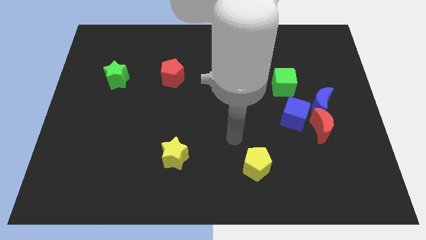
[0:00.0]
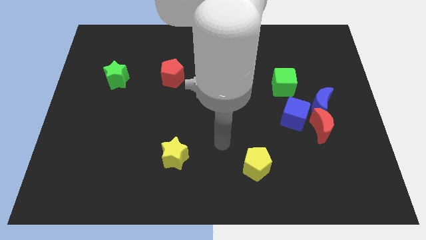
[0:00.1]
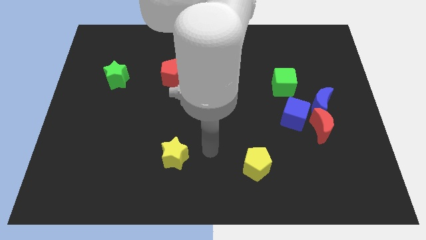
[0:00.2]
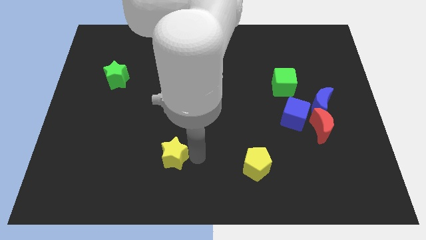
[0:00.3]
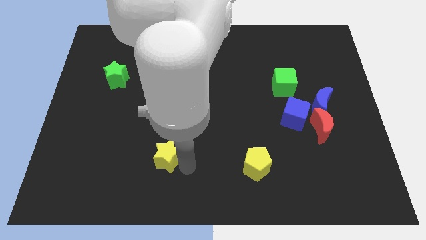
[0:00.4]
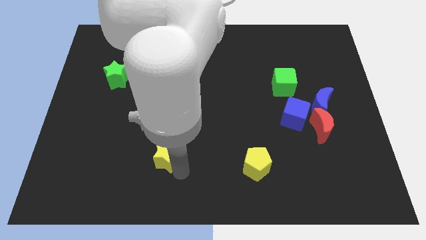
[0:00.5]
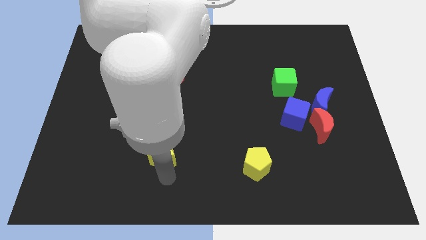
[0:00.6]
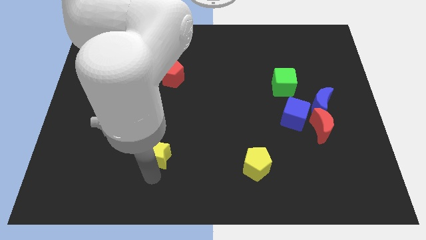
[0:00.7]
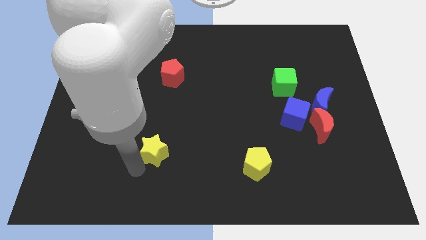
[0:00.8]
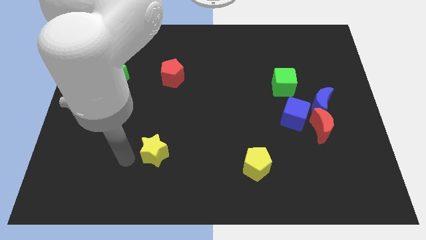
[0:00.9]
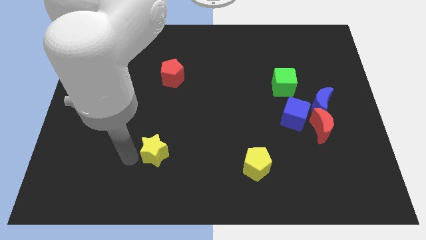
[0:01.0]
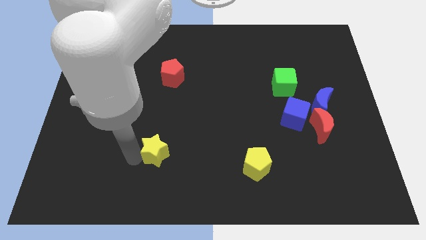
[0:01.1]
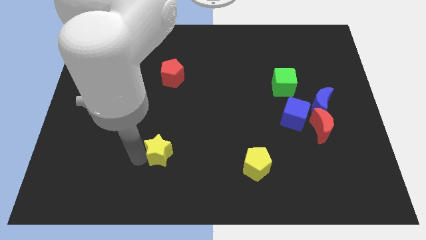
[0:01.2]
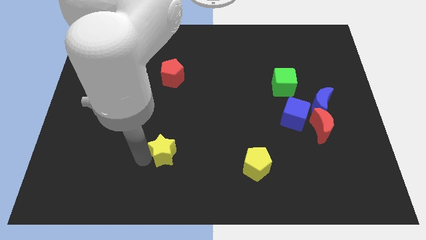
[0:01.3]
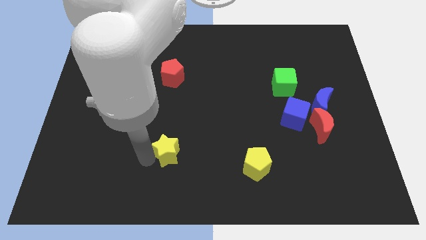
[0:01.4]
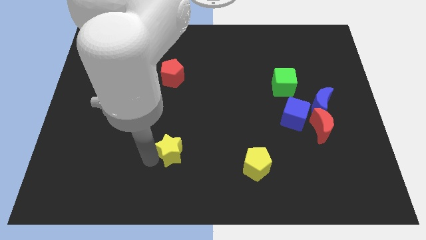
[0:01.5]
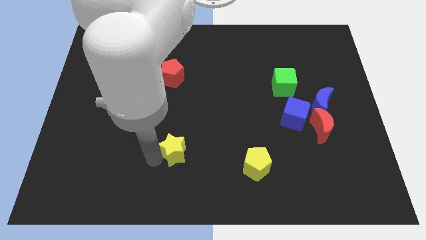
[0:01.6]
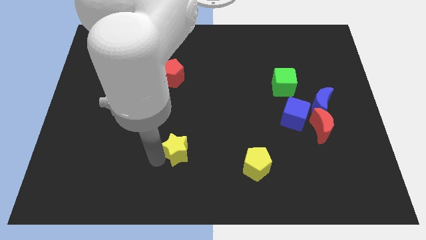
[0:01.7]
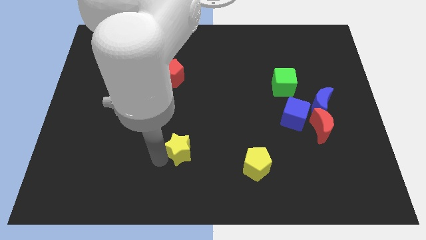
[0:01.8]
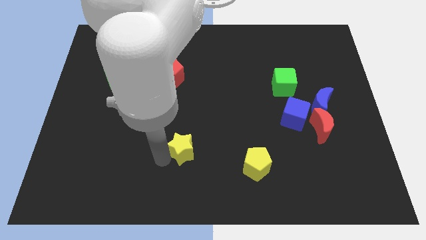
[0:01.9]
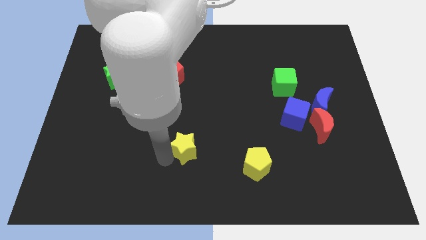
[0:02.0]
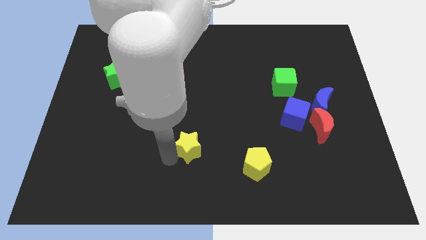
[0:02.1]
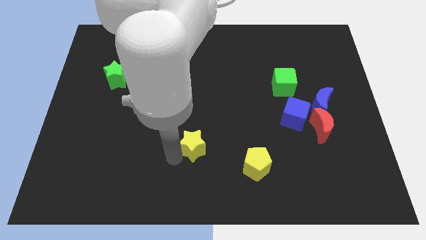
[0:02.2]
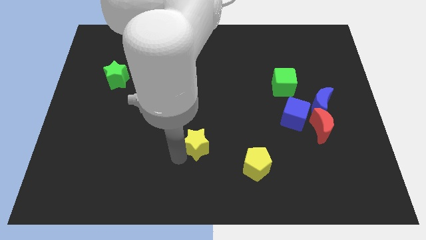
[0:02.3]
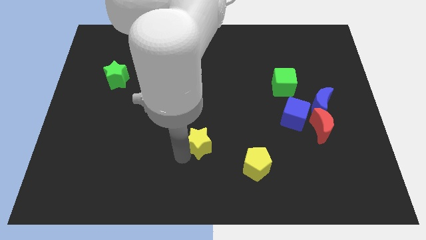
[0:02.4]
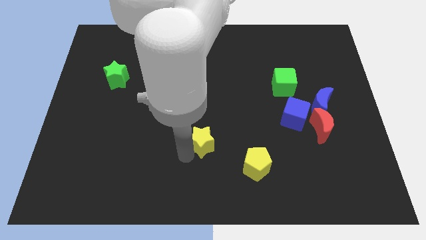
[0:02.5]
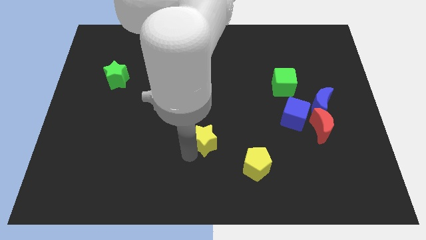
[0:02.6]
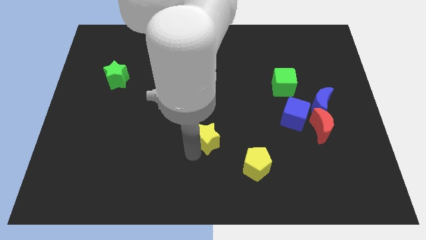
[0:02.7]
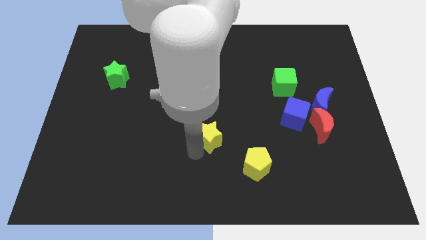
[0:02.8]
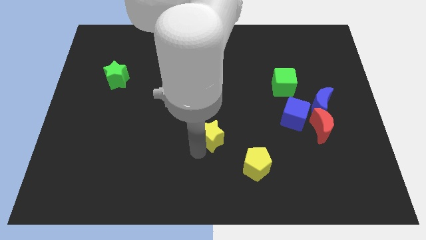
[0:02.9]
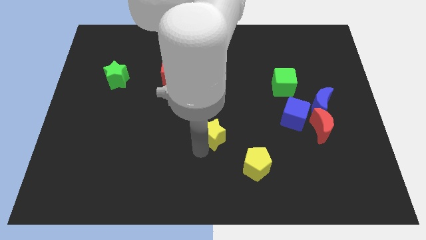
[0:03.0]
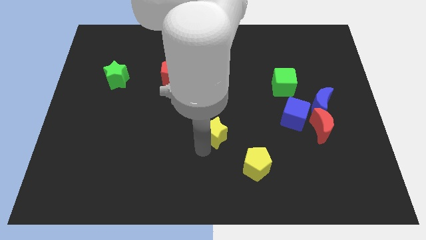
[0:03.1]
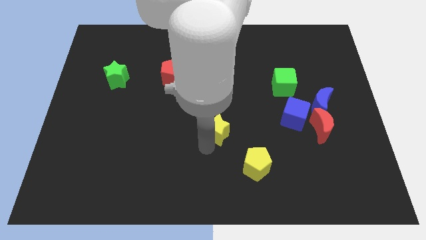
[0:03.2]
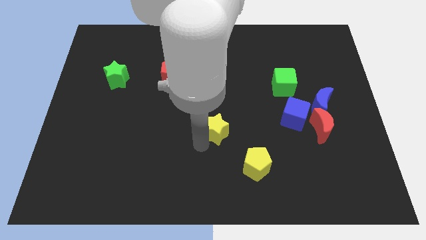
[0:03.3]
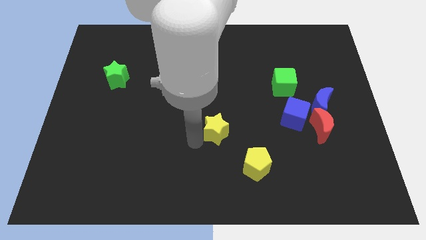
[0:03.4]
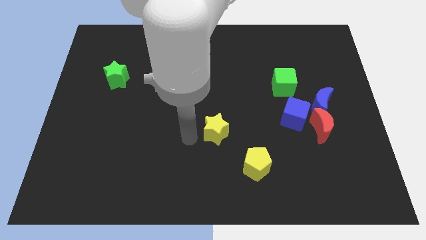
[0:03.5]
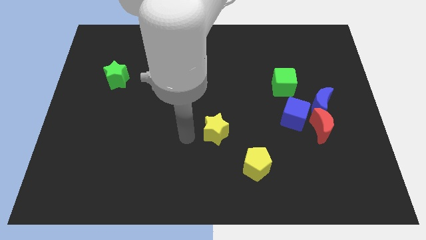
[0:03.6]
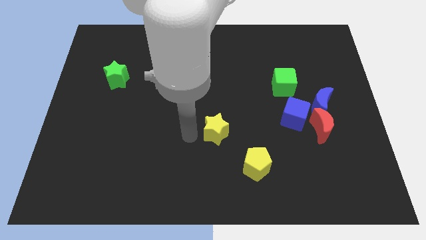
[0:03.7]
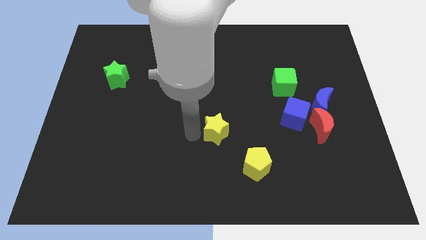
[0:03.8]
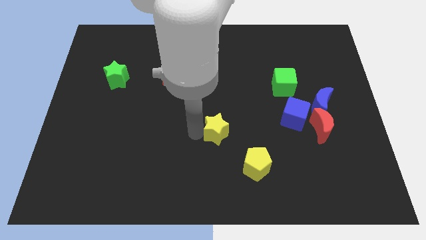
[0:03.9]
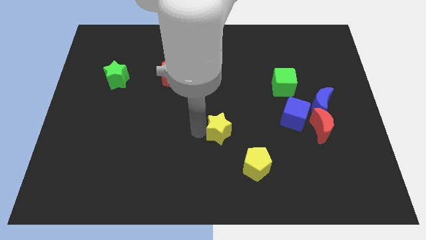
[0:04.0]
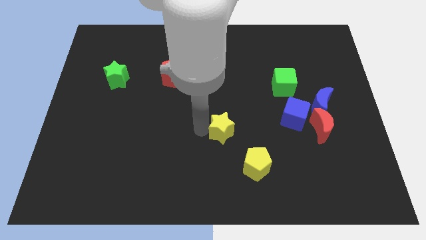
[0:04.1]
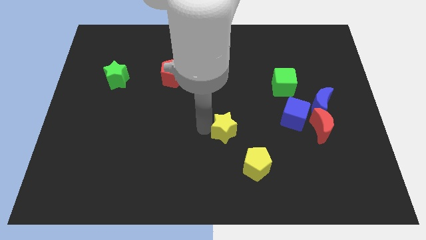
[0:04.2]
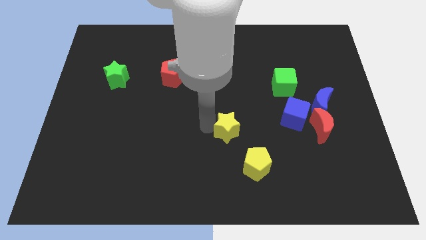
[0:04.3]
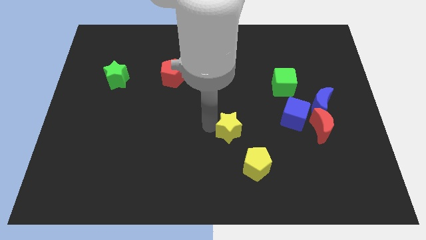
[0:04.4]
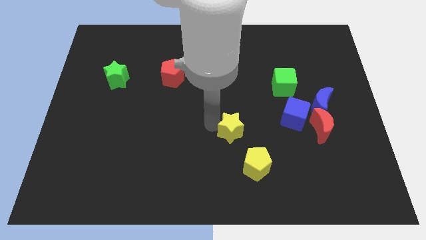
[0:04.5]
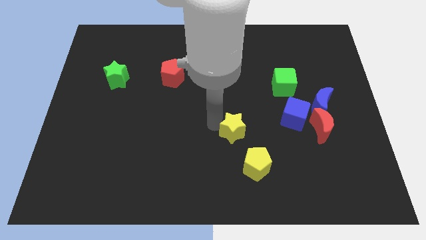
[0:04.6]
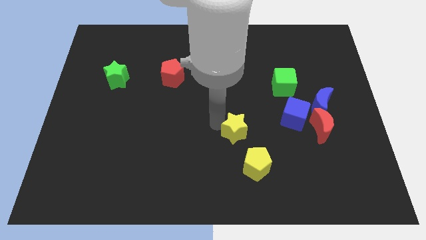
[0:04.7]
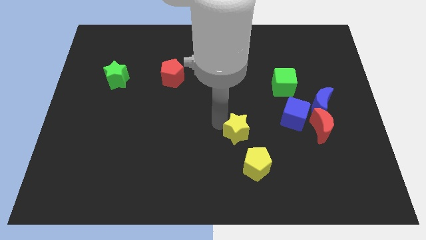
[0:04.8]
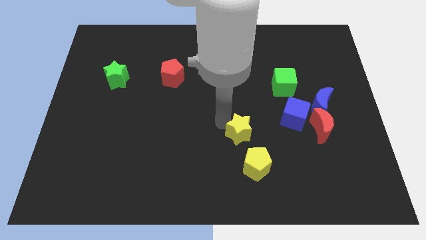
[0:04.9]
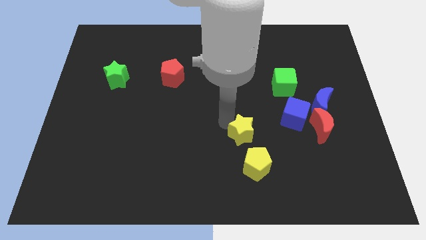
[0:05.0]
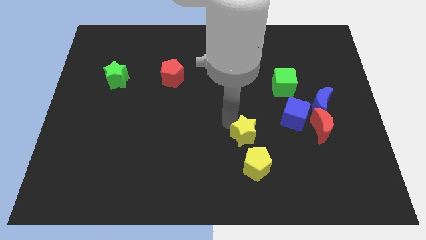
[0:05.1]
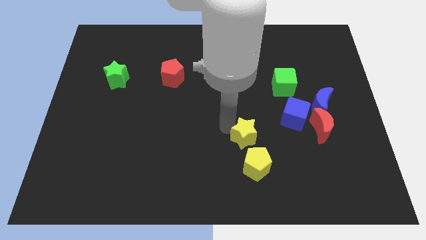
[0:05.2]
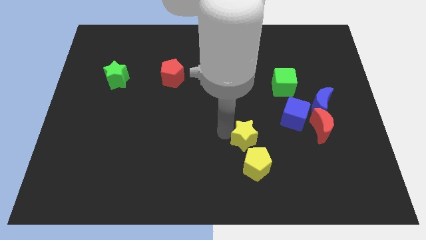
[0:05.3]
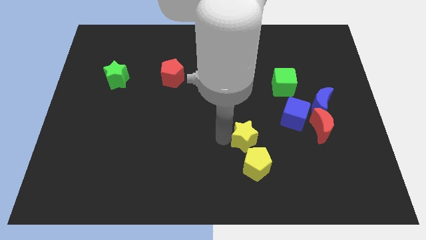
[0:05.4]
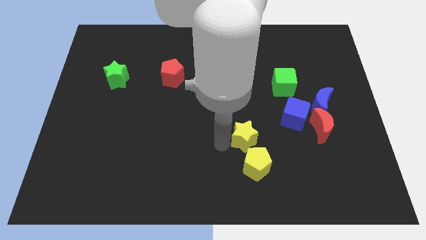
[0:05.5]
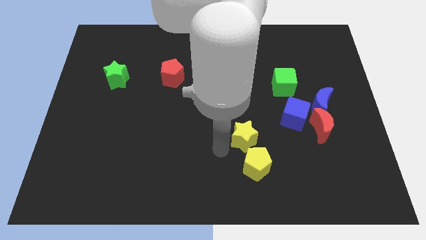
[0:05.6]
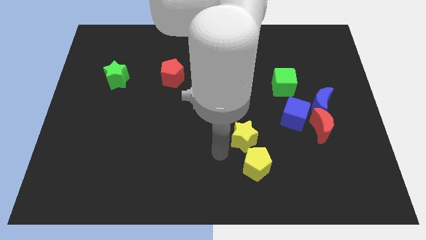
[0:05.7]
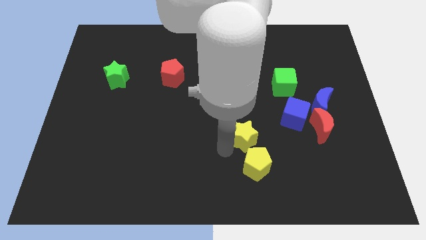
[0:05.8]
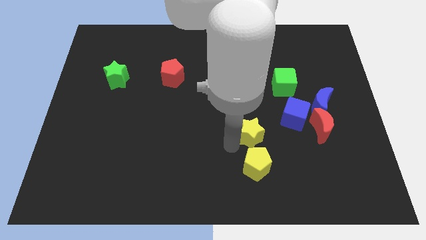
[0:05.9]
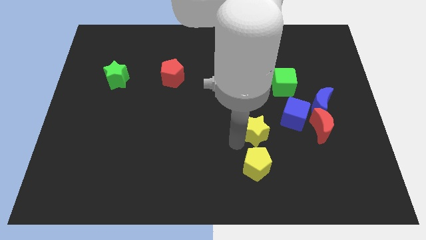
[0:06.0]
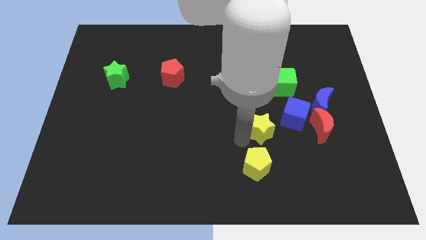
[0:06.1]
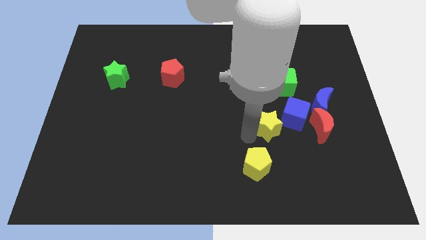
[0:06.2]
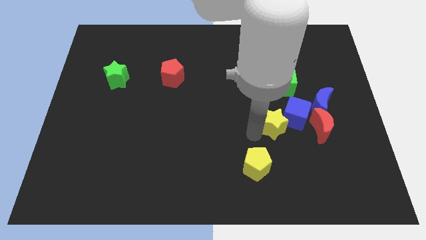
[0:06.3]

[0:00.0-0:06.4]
slide the yellow star towards the blue cube

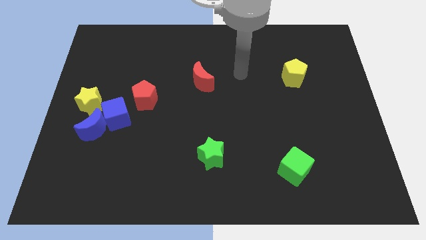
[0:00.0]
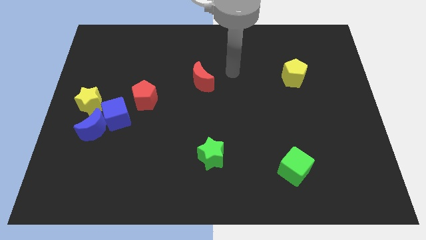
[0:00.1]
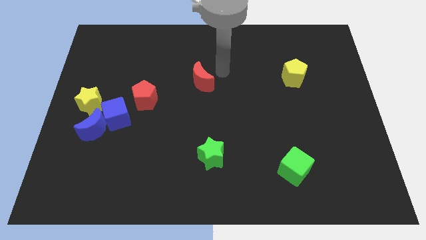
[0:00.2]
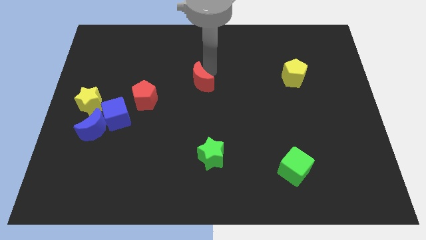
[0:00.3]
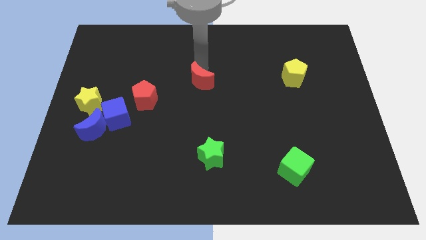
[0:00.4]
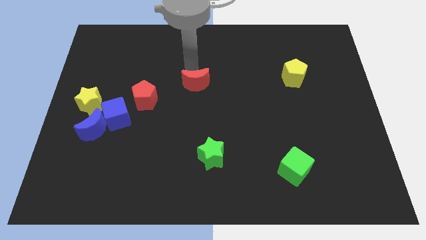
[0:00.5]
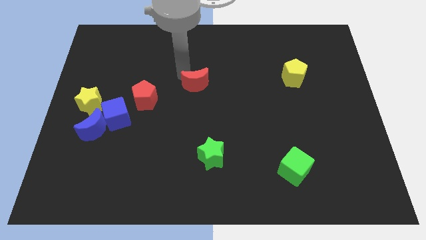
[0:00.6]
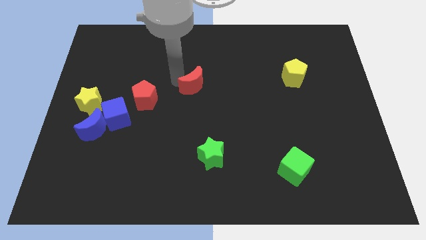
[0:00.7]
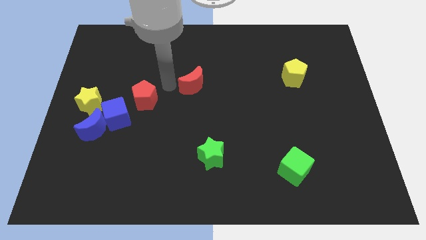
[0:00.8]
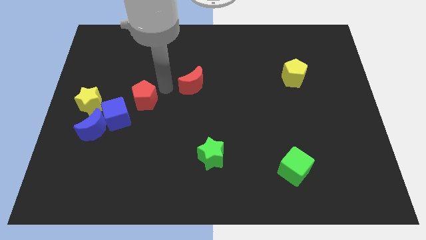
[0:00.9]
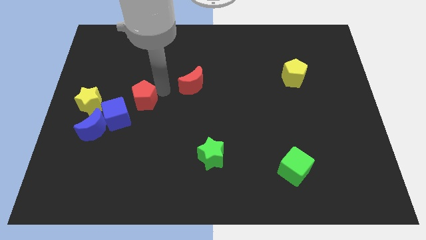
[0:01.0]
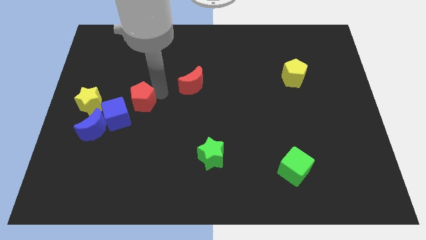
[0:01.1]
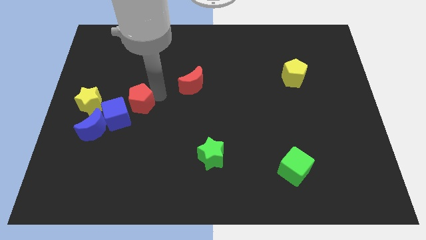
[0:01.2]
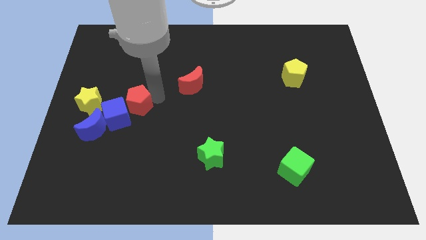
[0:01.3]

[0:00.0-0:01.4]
push the red pentagon towards the blue cube
